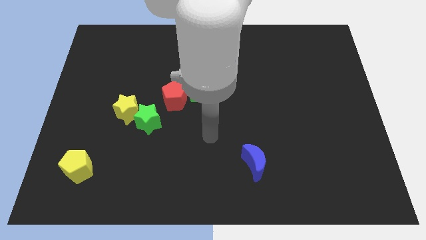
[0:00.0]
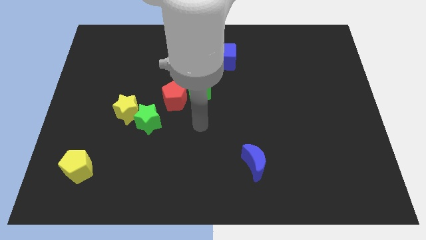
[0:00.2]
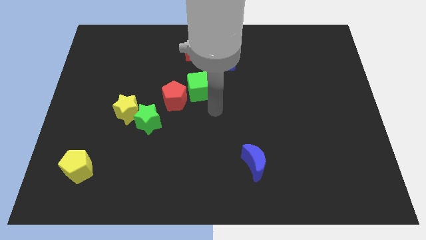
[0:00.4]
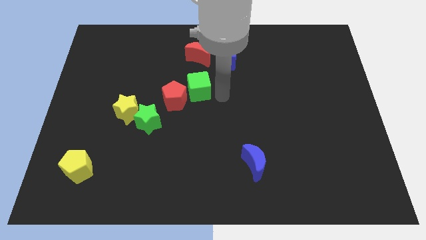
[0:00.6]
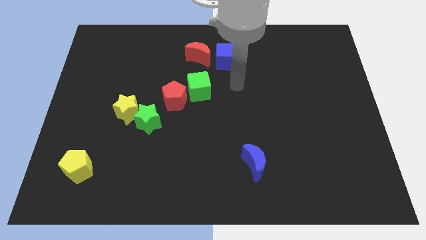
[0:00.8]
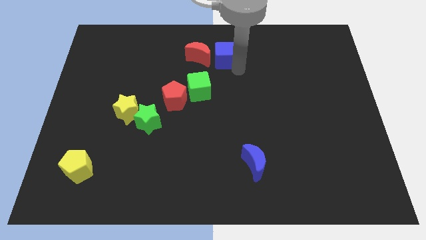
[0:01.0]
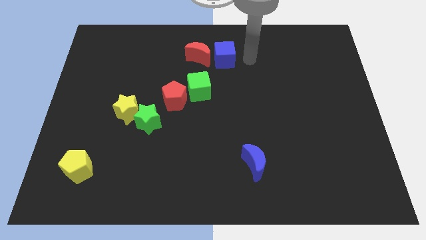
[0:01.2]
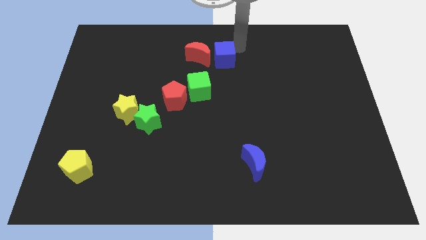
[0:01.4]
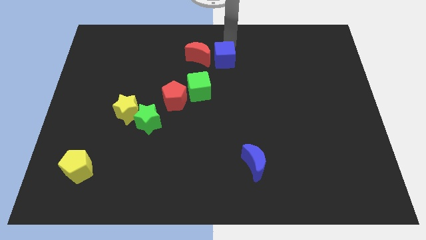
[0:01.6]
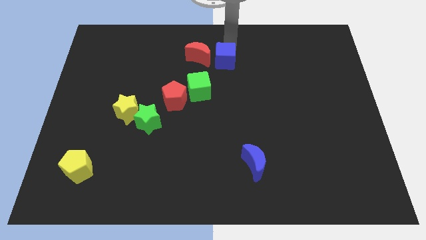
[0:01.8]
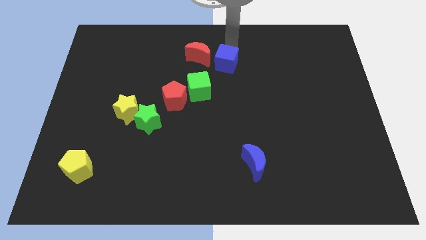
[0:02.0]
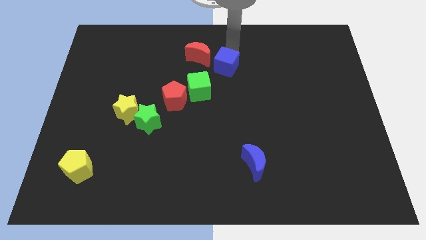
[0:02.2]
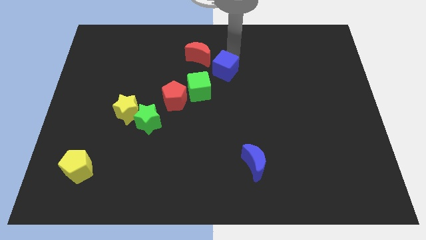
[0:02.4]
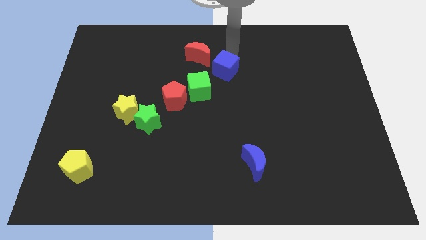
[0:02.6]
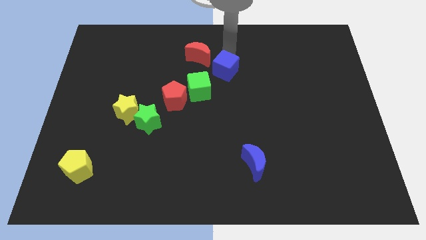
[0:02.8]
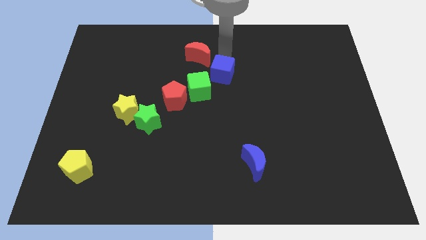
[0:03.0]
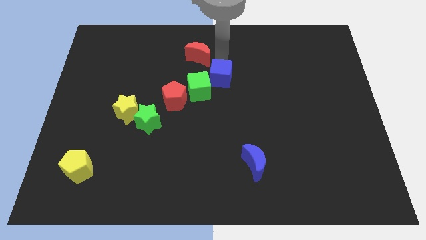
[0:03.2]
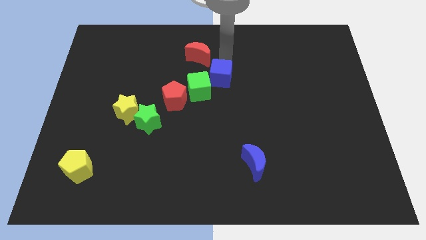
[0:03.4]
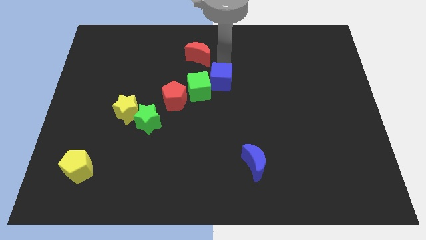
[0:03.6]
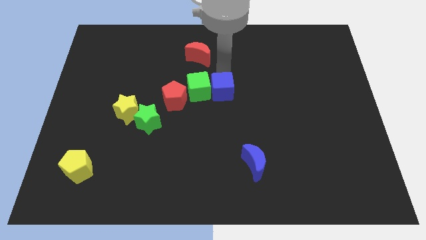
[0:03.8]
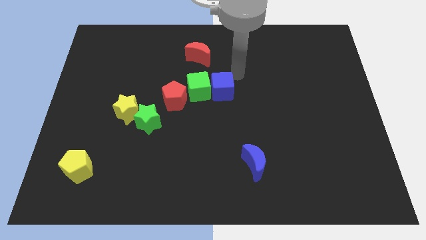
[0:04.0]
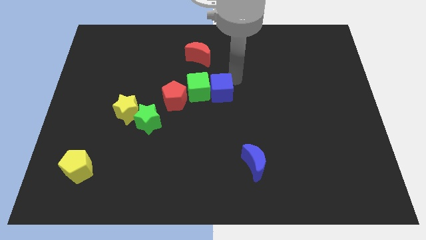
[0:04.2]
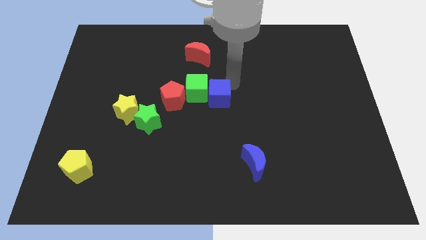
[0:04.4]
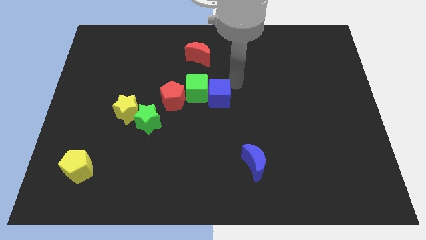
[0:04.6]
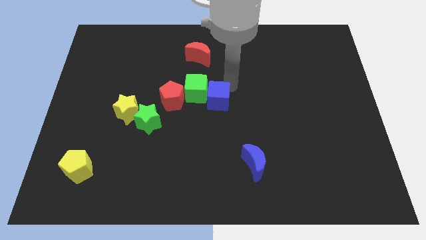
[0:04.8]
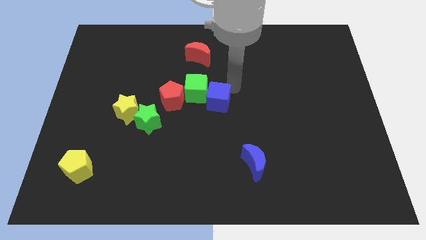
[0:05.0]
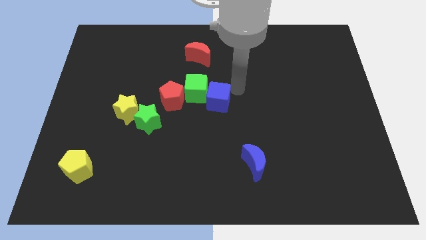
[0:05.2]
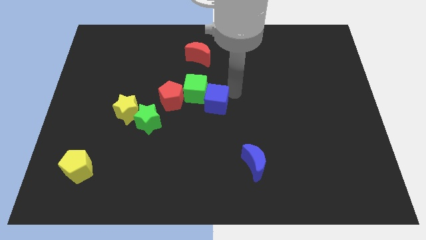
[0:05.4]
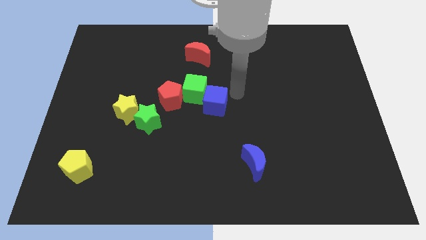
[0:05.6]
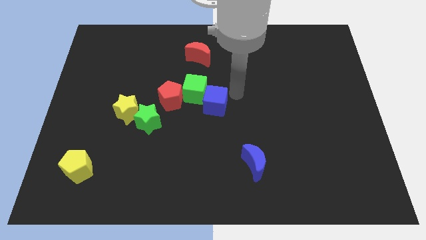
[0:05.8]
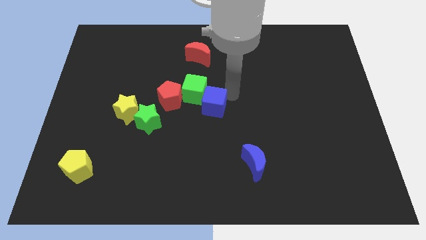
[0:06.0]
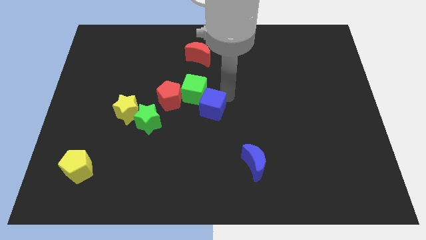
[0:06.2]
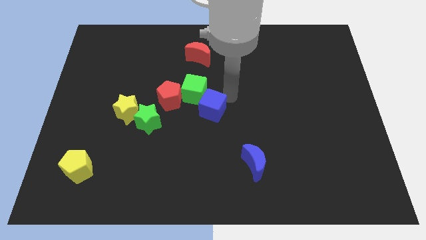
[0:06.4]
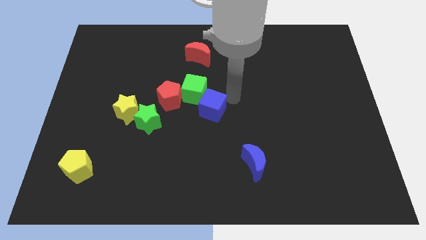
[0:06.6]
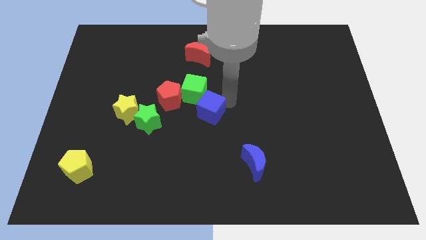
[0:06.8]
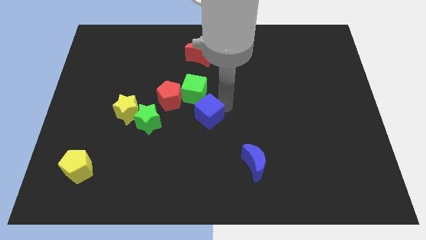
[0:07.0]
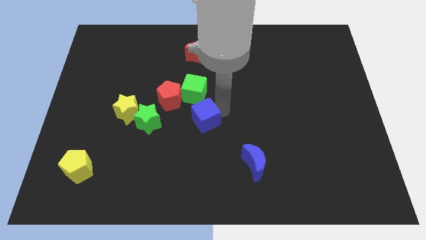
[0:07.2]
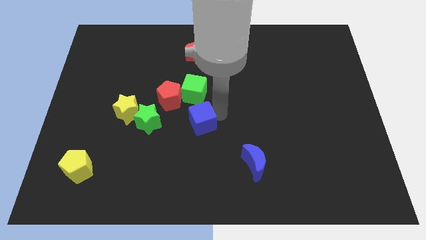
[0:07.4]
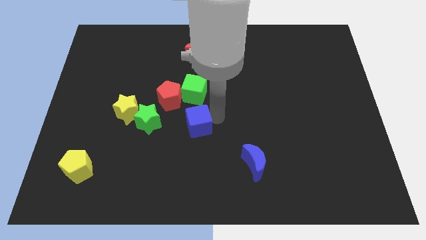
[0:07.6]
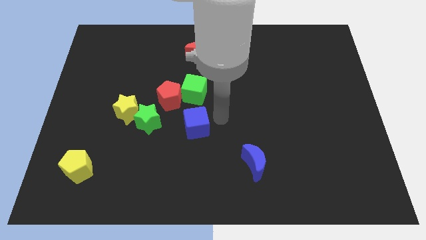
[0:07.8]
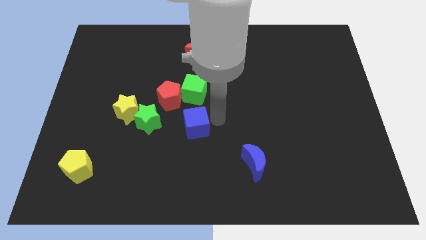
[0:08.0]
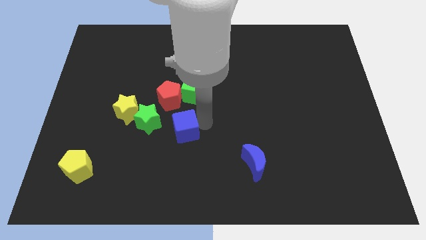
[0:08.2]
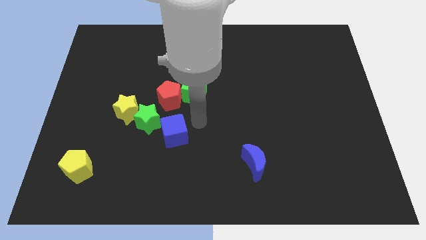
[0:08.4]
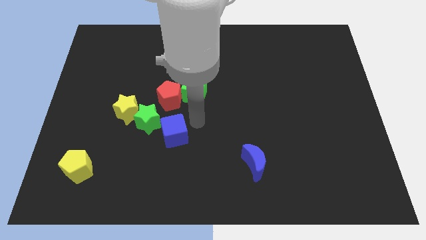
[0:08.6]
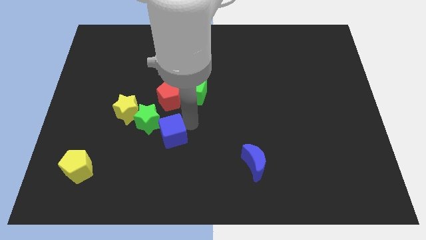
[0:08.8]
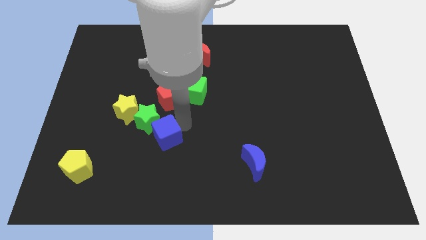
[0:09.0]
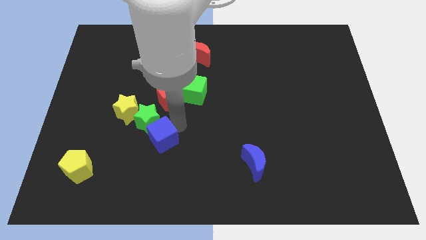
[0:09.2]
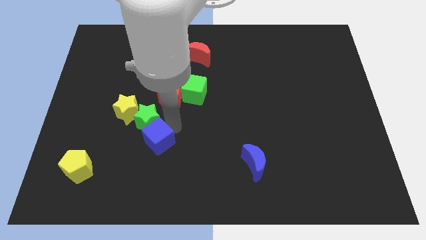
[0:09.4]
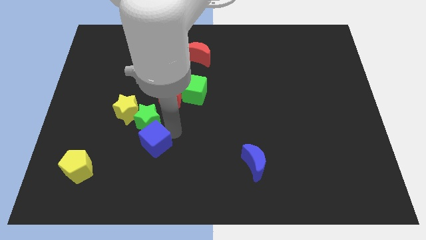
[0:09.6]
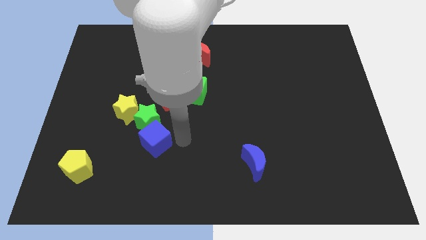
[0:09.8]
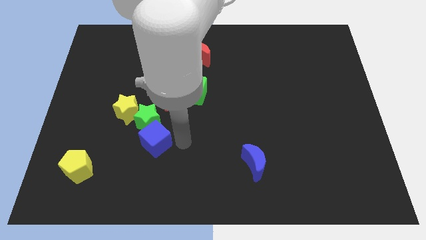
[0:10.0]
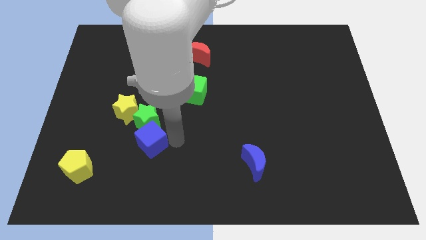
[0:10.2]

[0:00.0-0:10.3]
slide the blue cube diagonally down and to the left of the green star

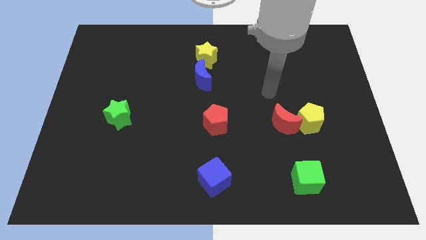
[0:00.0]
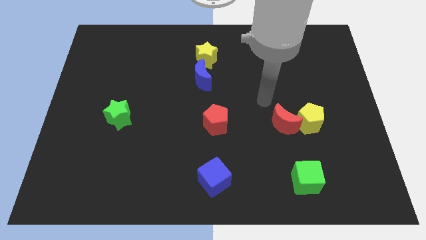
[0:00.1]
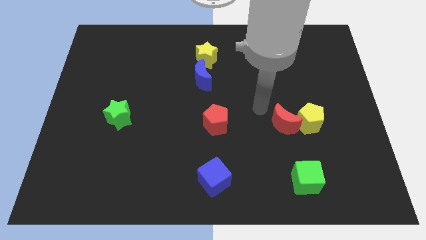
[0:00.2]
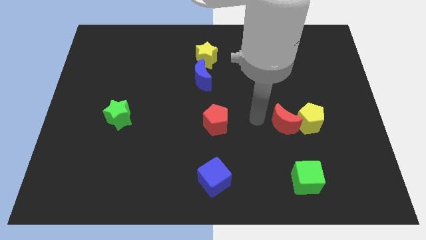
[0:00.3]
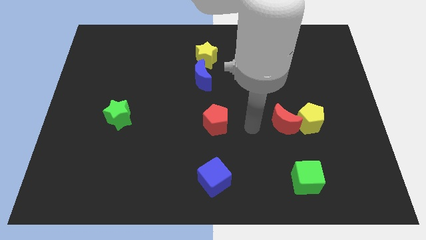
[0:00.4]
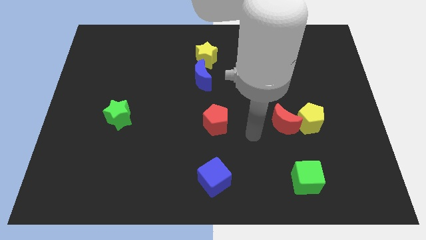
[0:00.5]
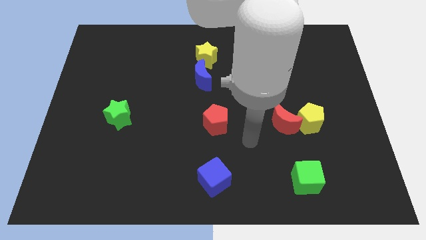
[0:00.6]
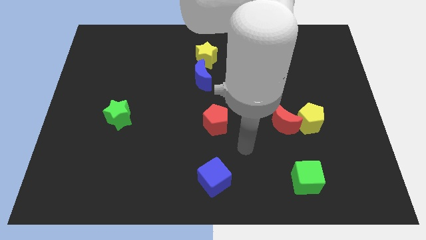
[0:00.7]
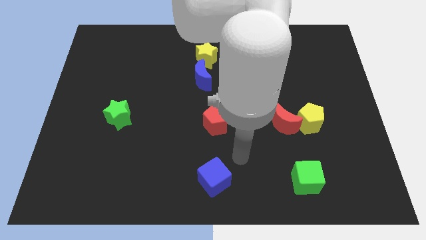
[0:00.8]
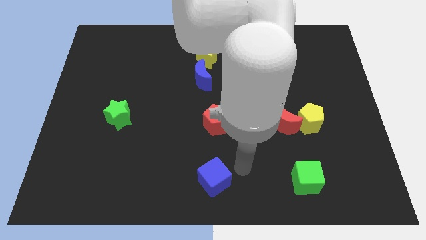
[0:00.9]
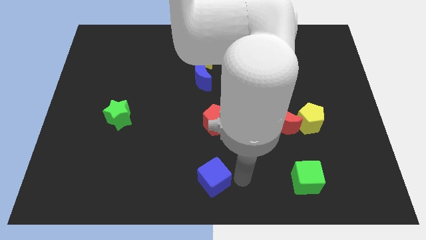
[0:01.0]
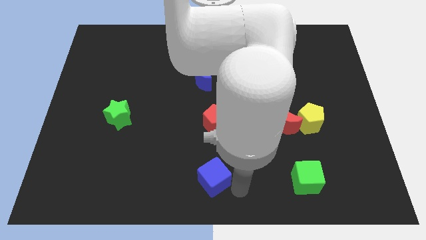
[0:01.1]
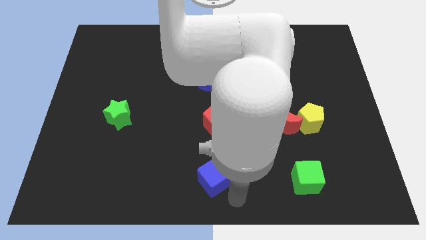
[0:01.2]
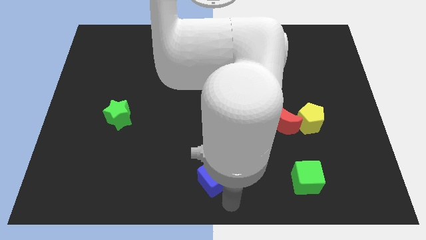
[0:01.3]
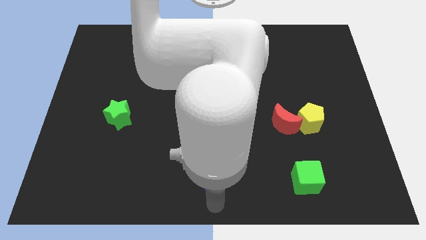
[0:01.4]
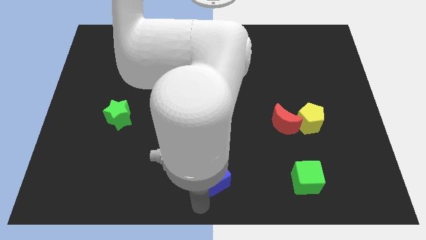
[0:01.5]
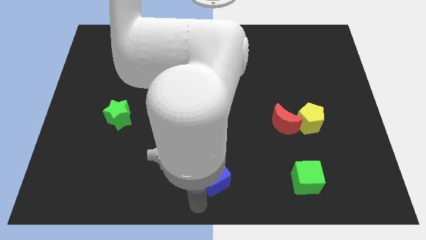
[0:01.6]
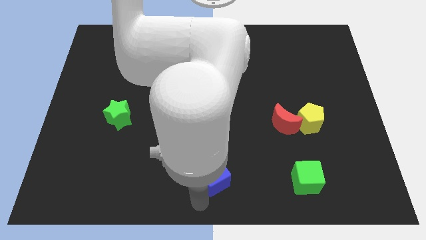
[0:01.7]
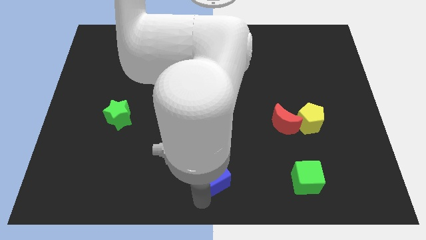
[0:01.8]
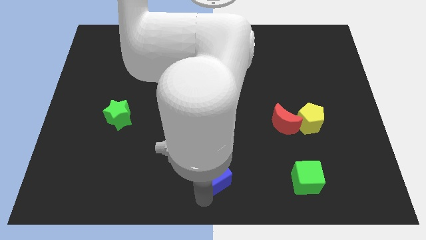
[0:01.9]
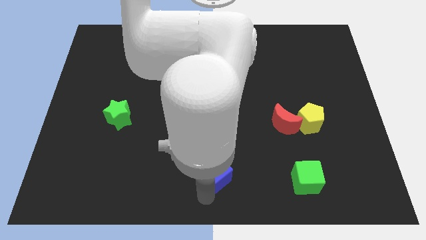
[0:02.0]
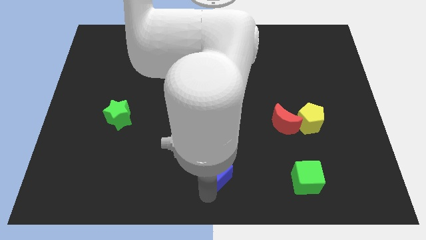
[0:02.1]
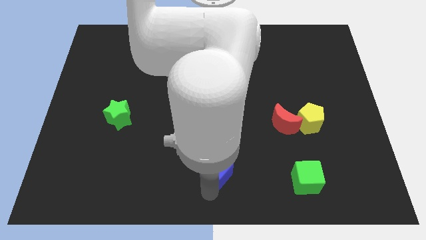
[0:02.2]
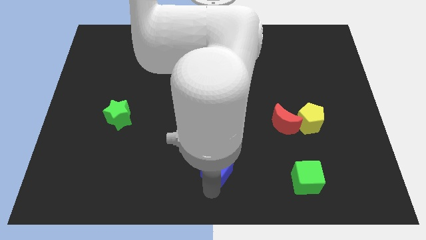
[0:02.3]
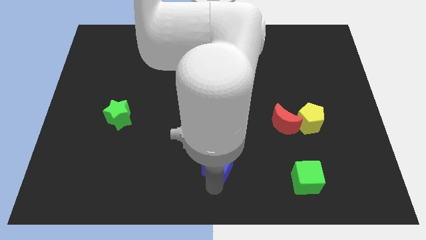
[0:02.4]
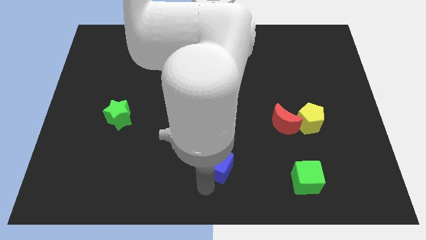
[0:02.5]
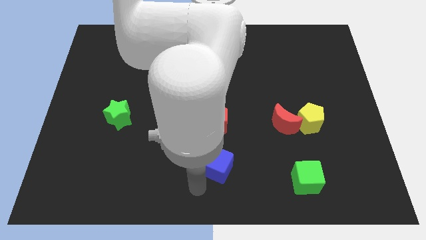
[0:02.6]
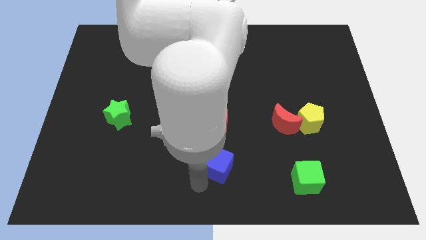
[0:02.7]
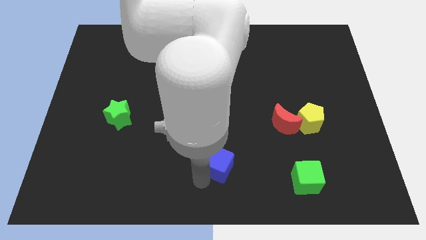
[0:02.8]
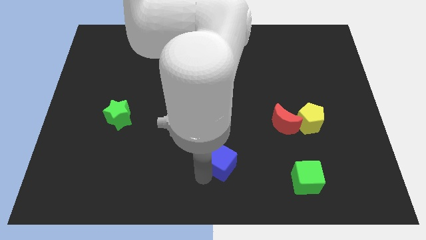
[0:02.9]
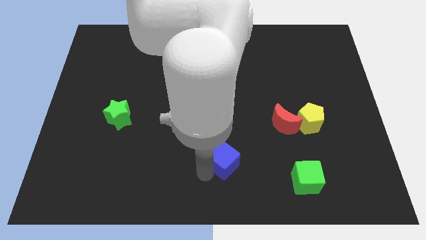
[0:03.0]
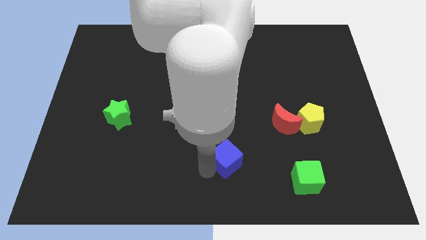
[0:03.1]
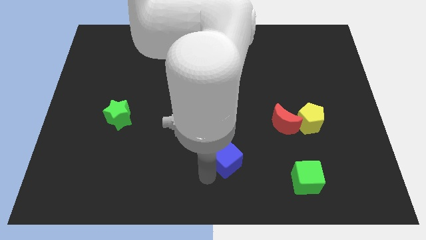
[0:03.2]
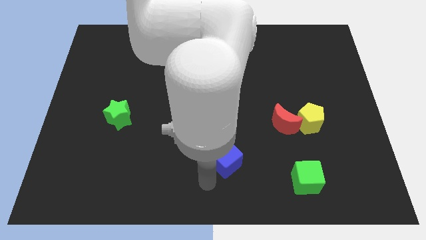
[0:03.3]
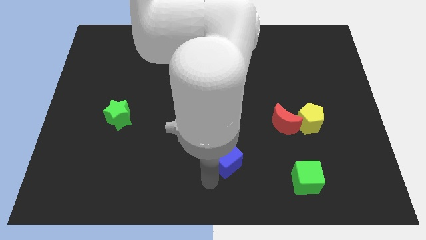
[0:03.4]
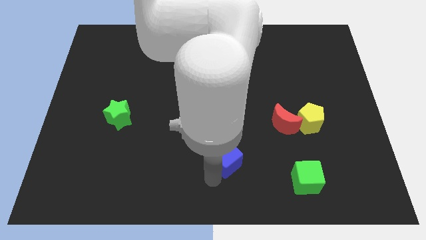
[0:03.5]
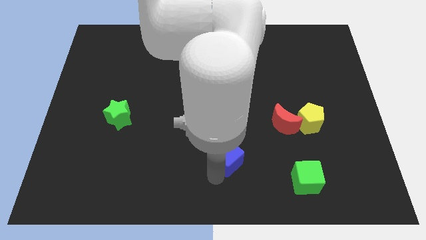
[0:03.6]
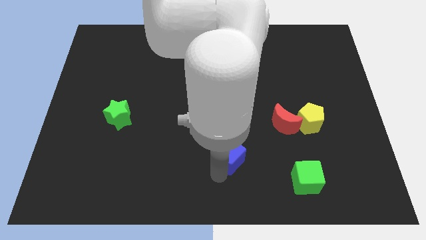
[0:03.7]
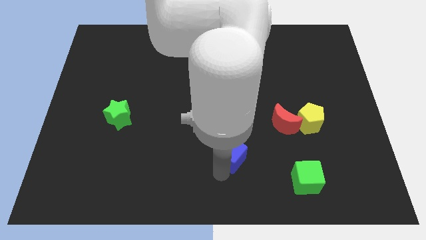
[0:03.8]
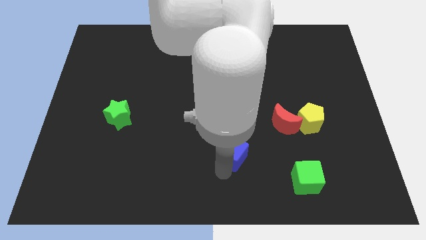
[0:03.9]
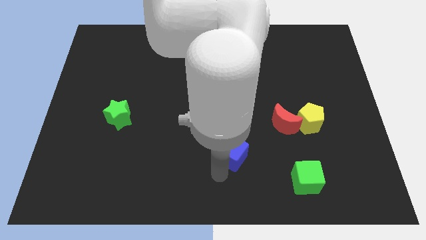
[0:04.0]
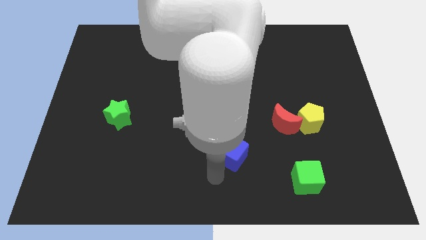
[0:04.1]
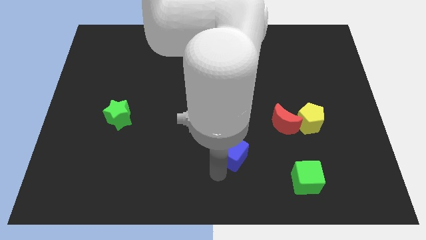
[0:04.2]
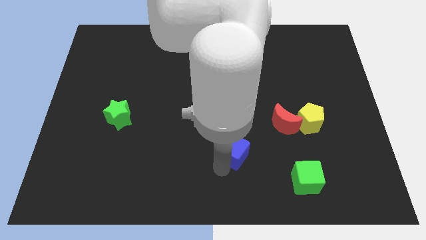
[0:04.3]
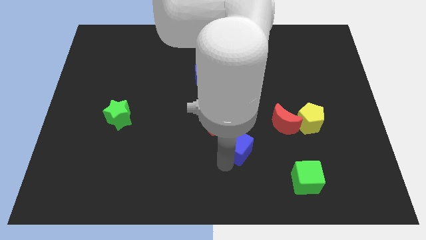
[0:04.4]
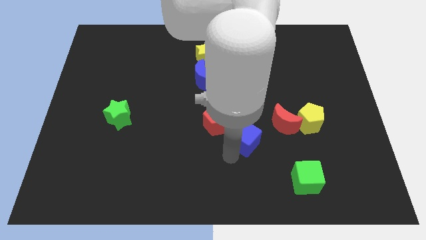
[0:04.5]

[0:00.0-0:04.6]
push the blue cube right of the red pentagon
